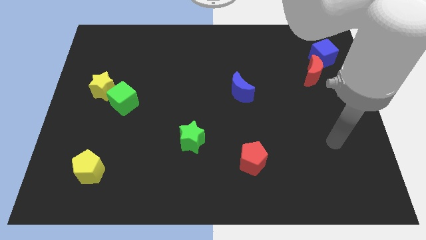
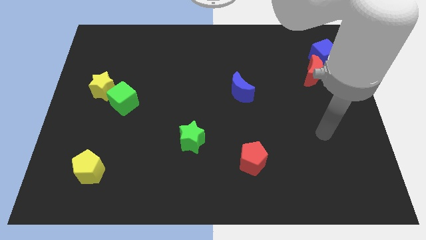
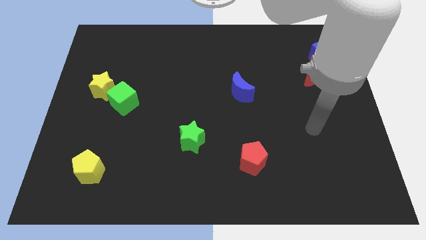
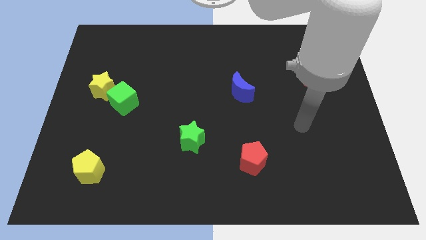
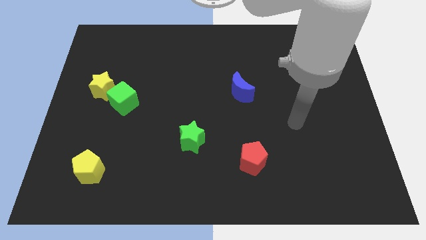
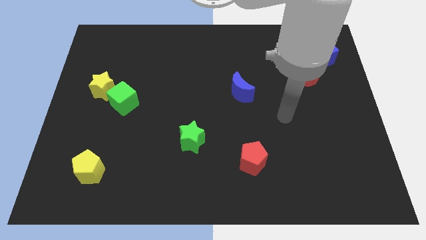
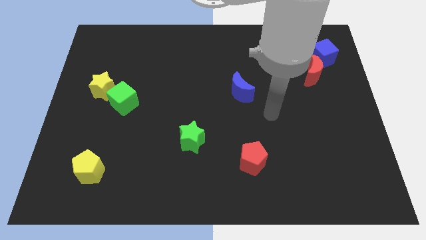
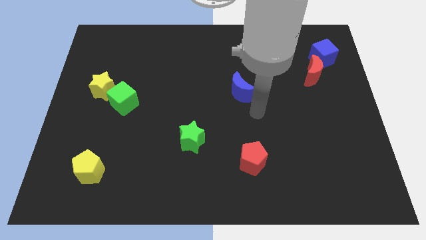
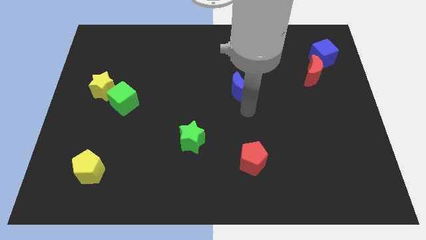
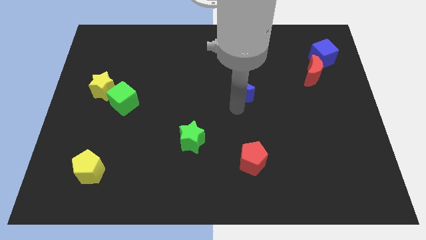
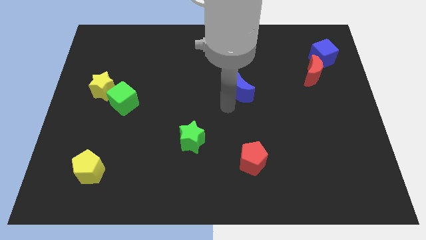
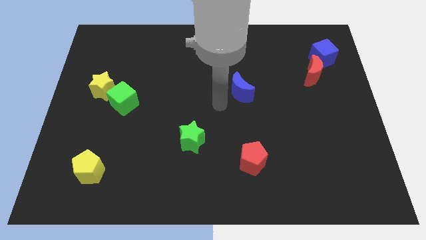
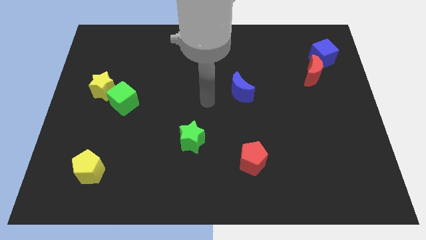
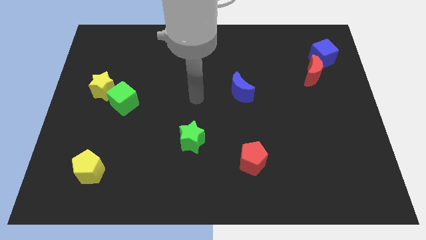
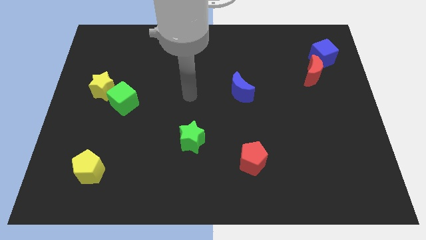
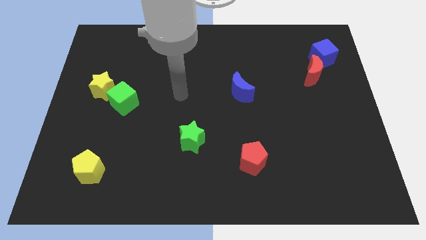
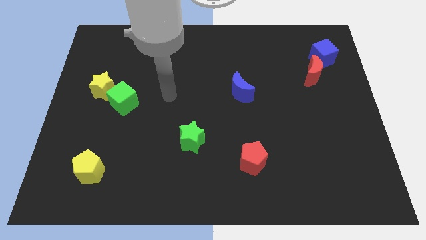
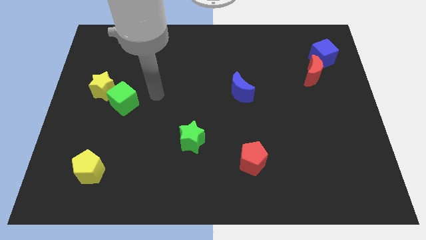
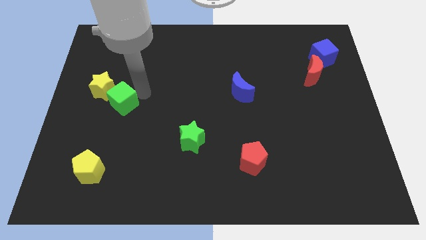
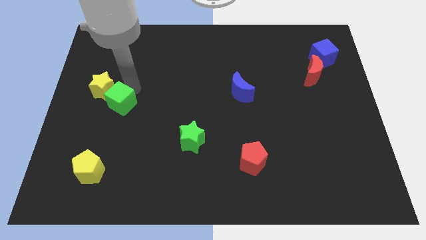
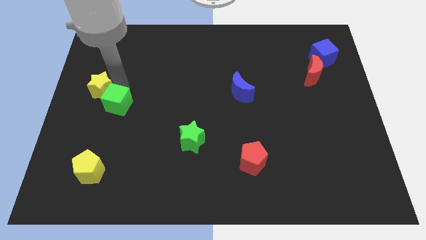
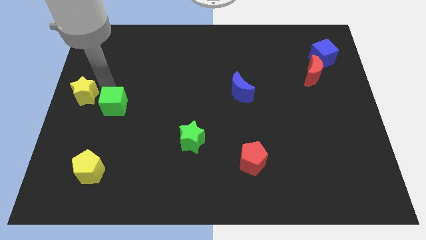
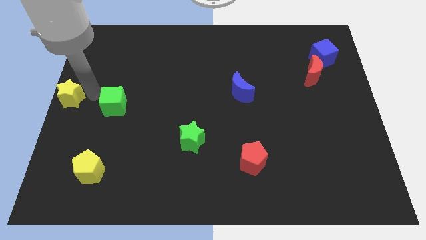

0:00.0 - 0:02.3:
separate the green cube from the yellow star

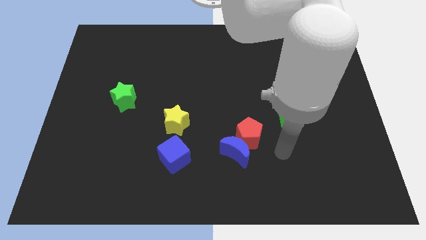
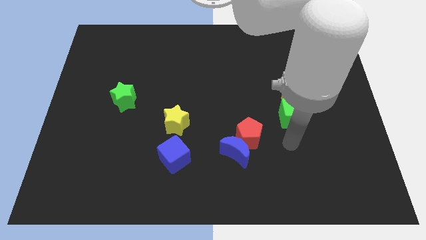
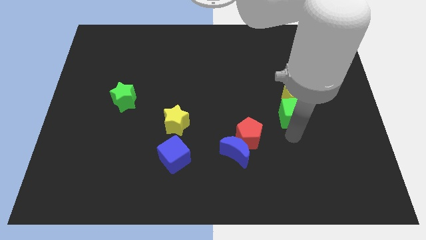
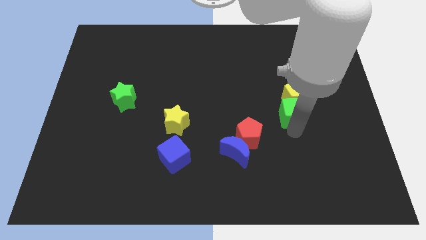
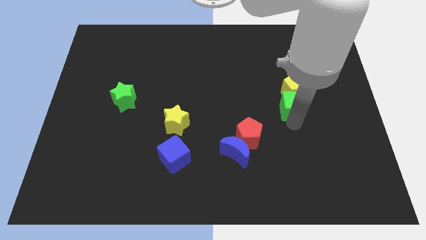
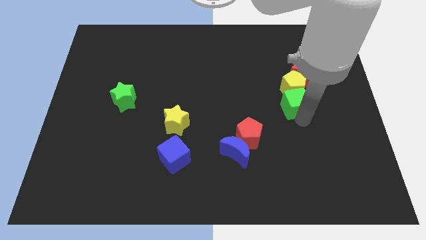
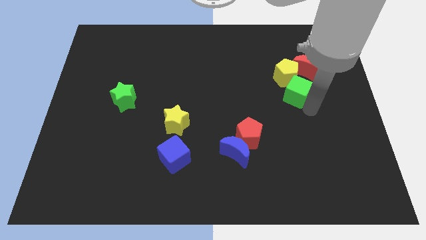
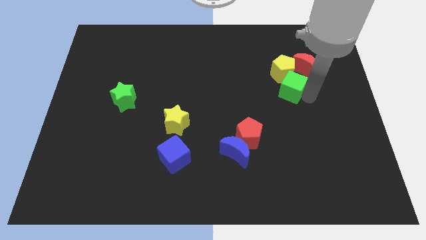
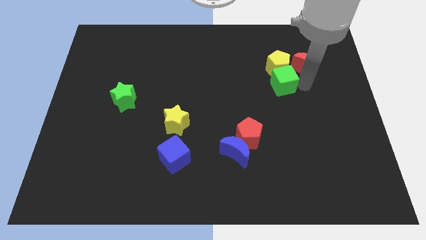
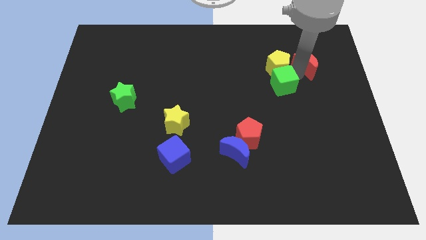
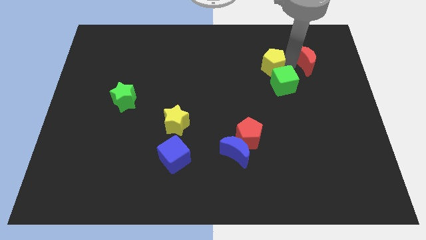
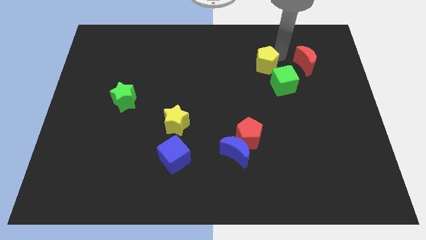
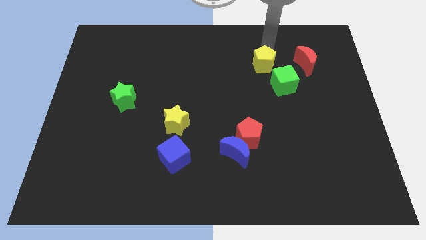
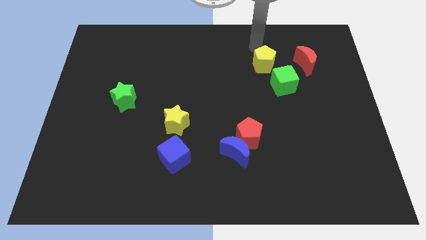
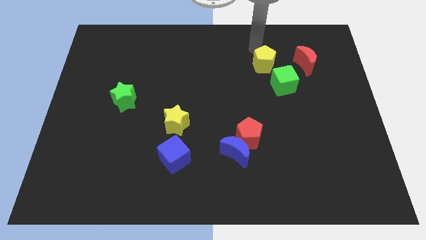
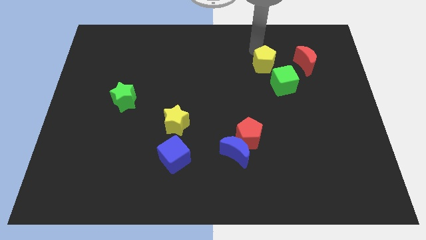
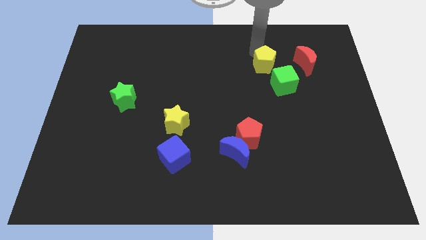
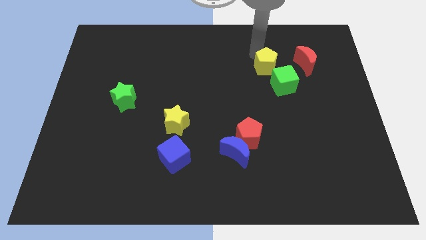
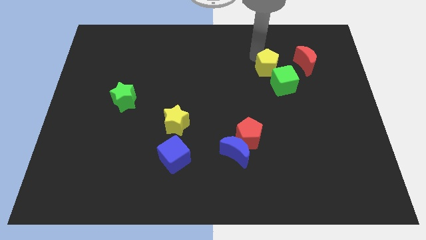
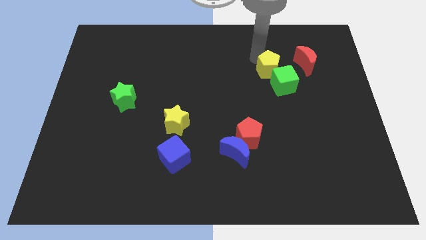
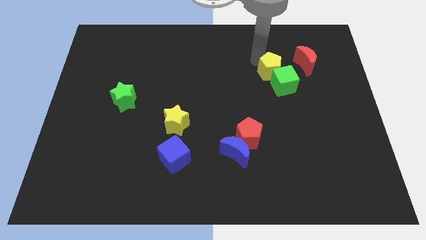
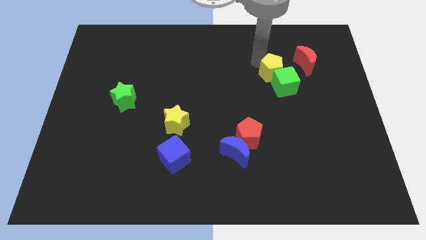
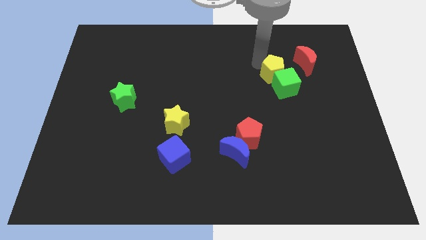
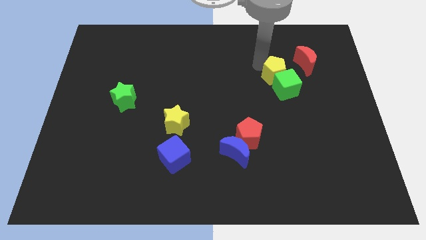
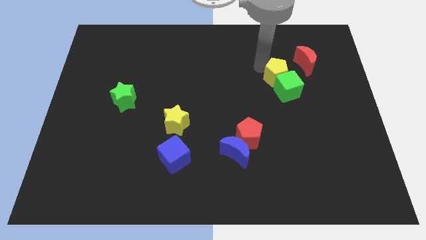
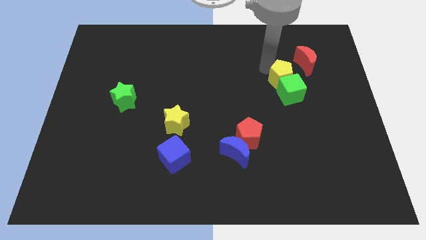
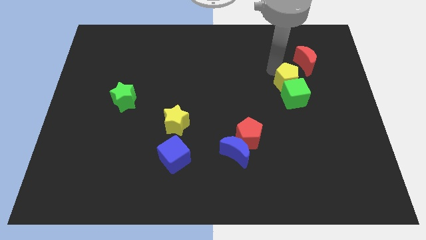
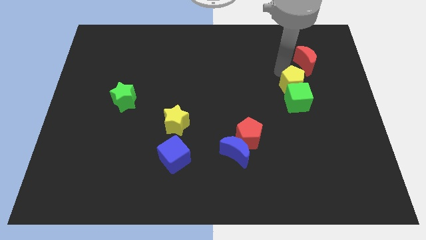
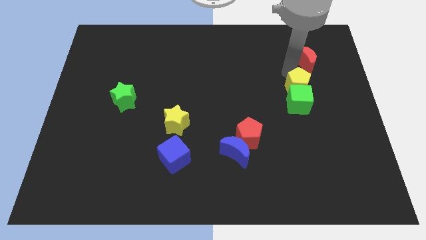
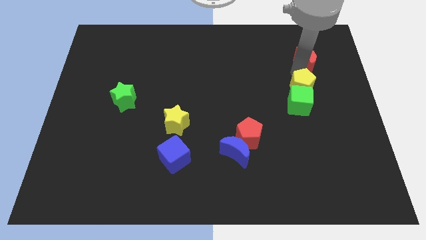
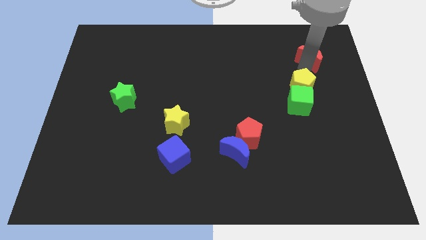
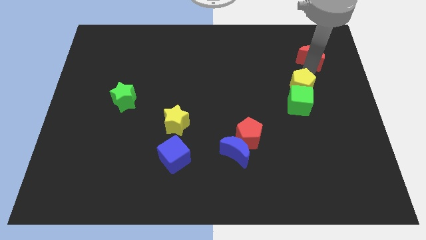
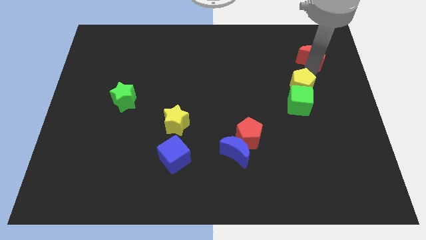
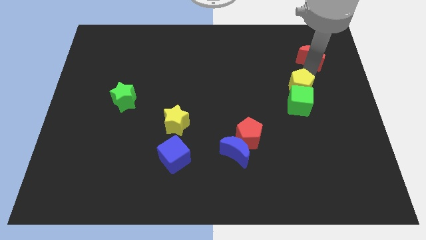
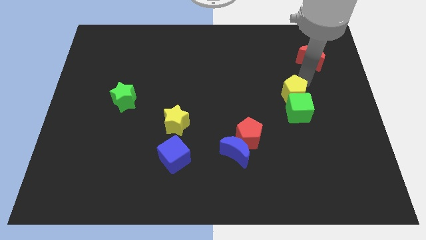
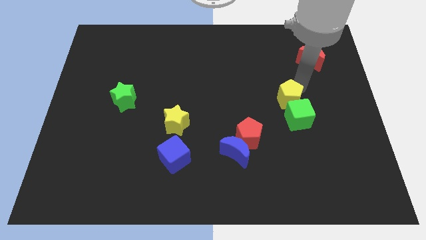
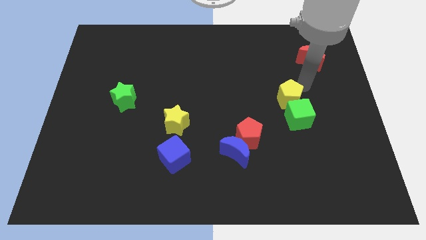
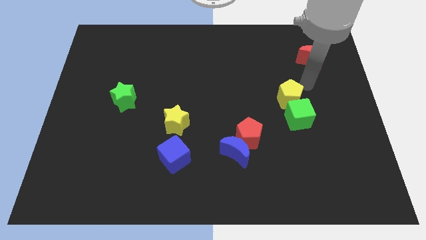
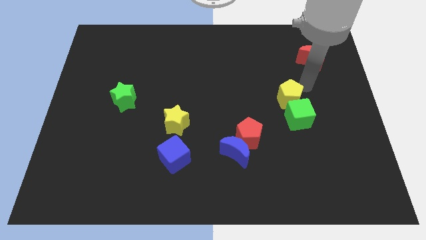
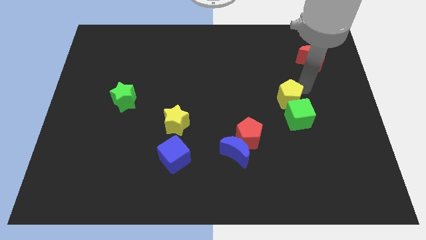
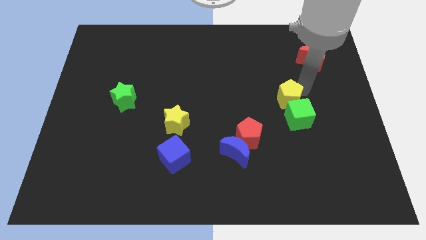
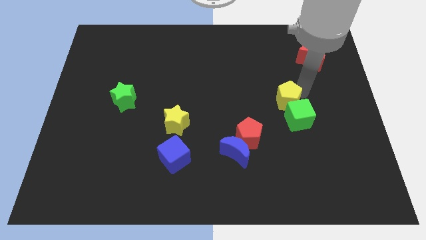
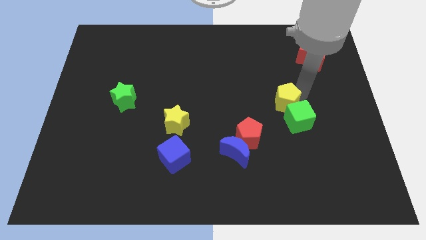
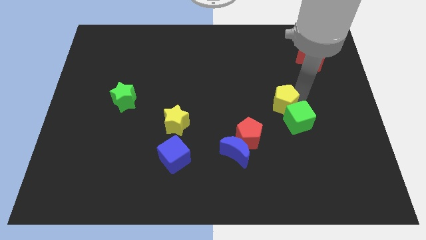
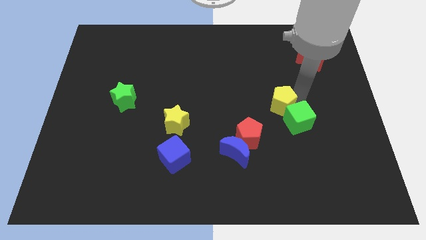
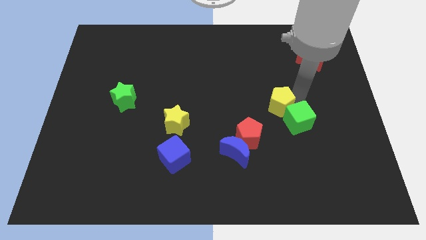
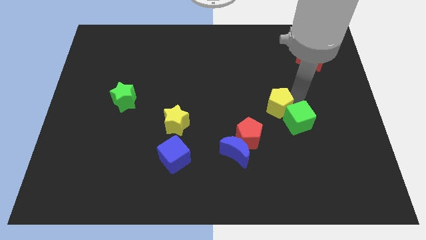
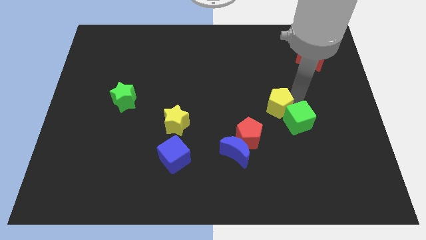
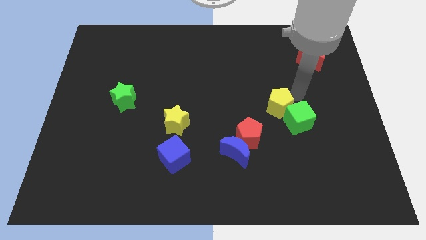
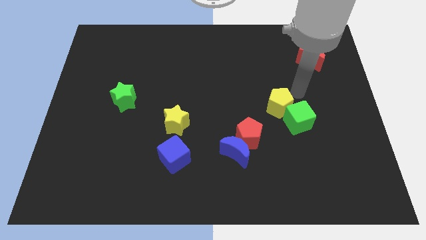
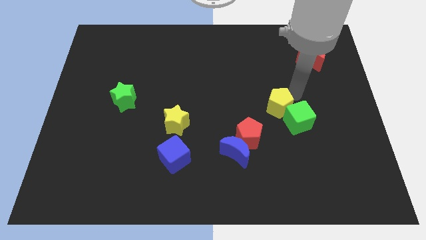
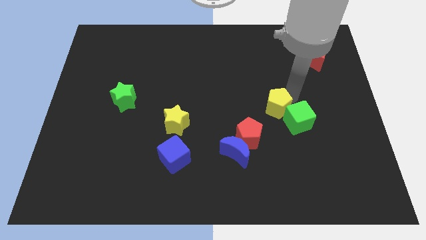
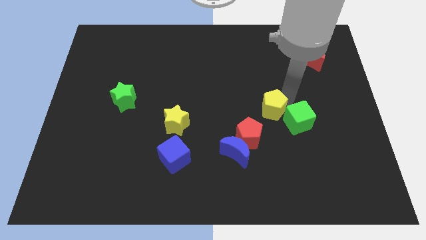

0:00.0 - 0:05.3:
pull the yellow pentagon apart from the red moon and green cube

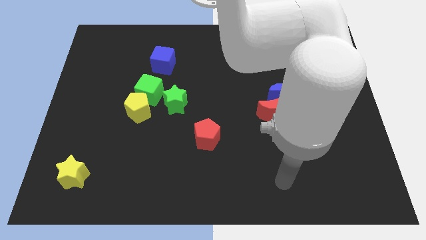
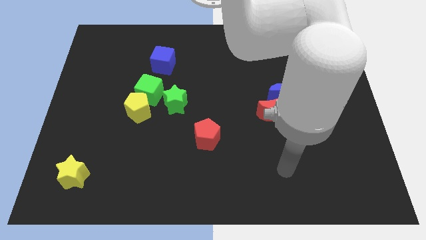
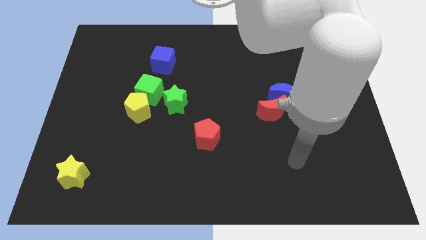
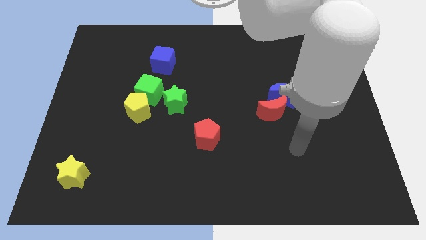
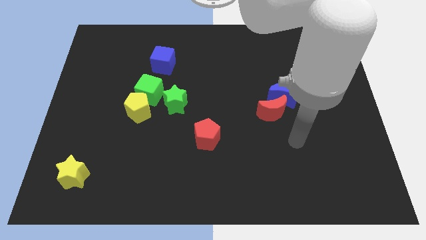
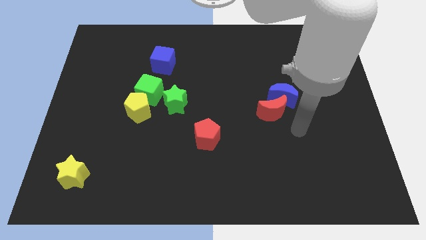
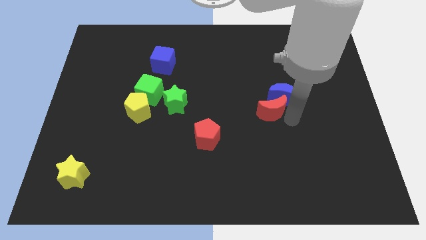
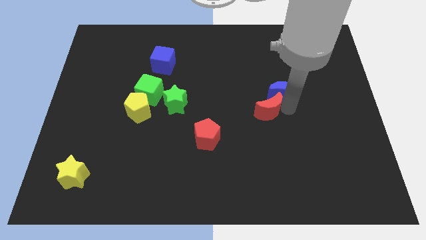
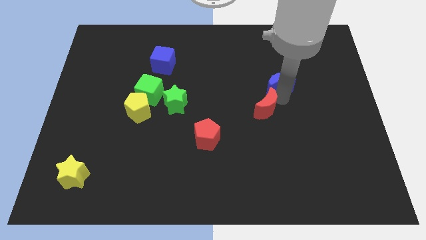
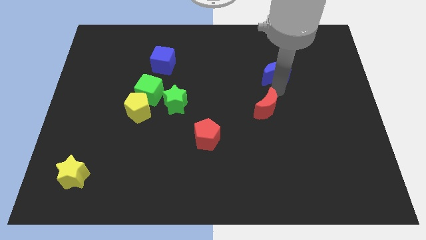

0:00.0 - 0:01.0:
move the red moon away from the blue moon

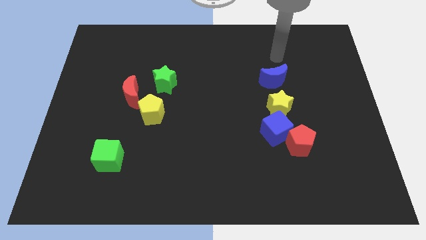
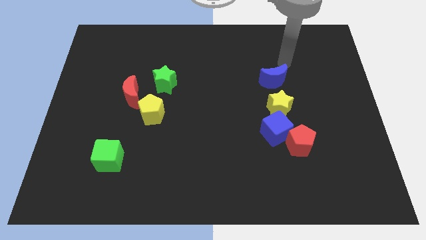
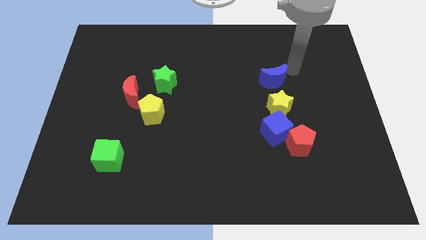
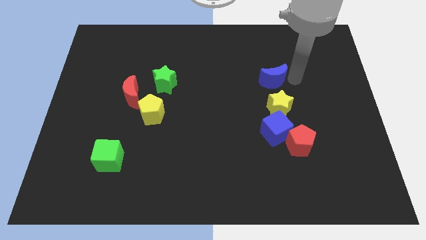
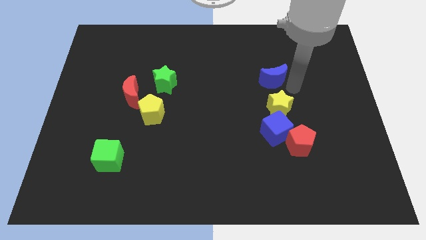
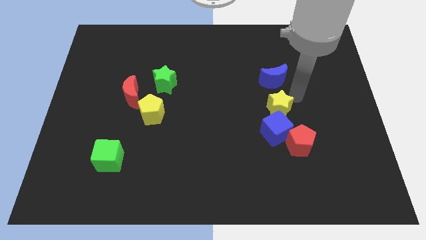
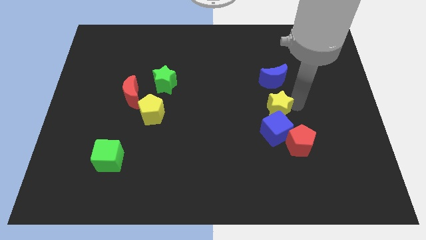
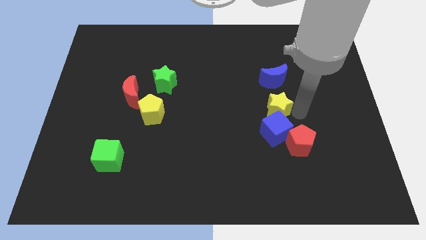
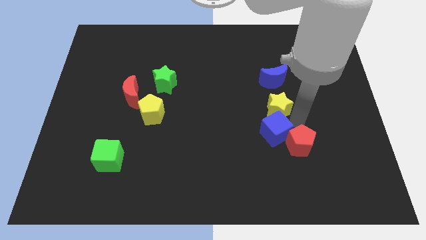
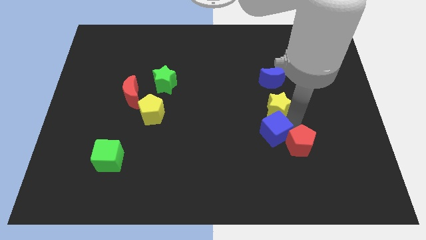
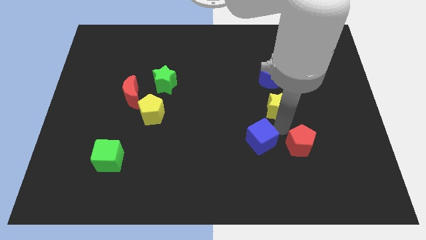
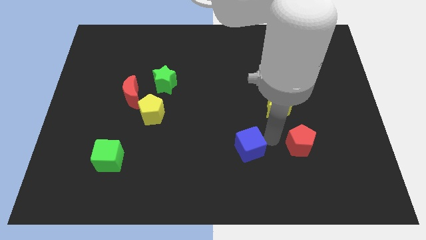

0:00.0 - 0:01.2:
pull the red pentagon apart from the blue cube
